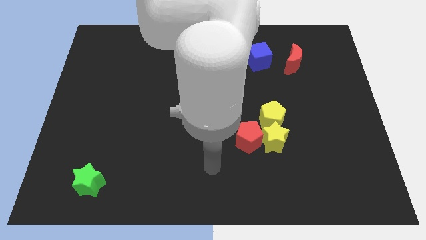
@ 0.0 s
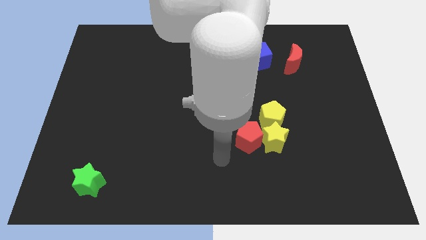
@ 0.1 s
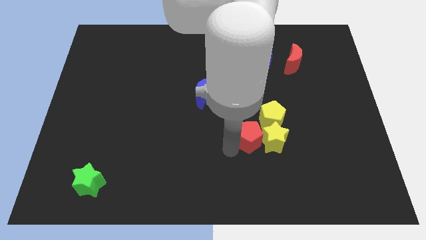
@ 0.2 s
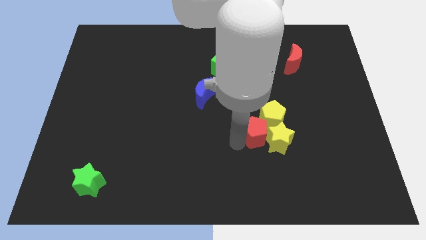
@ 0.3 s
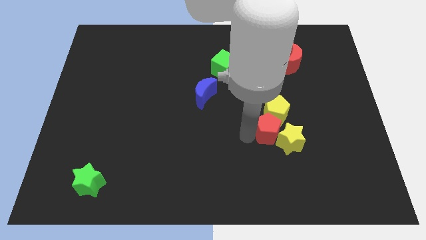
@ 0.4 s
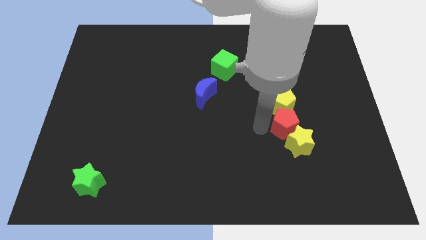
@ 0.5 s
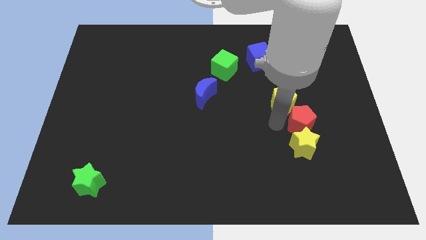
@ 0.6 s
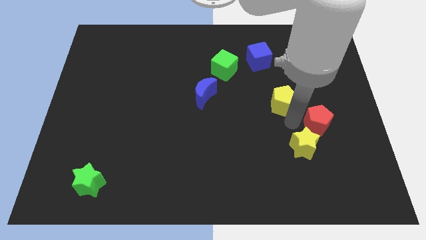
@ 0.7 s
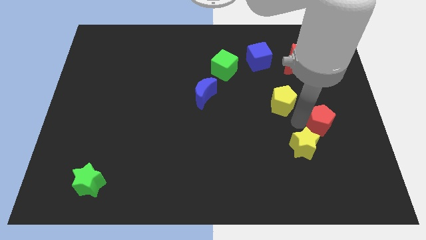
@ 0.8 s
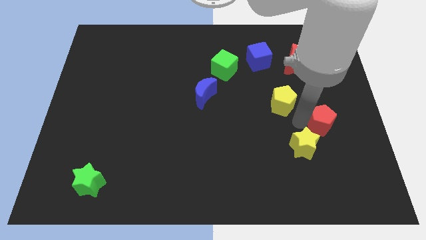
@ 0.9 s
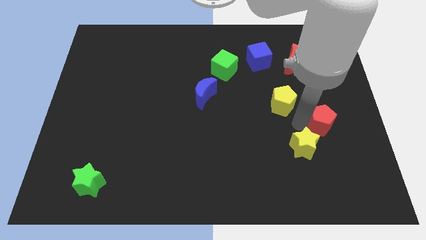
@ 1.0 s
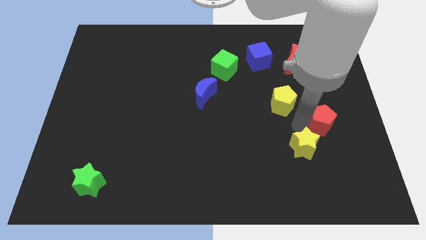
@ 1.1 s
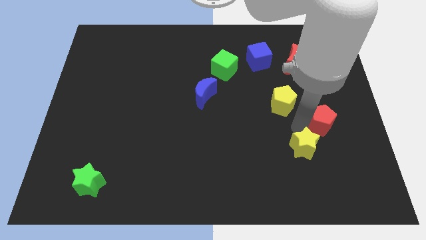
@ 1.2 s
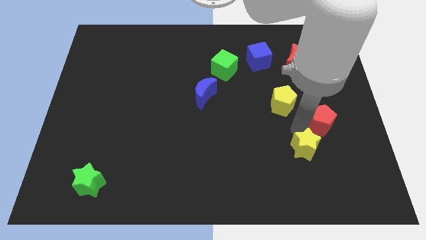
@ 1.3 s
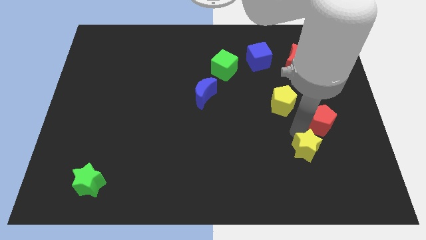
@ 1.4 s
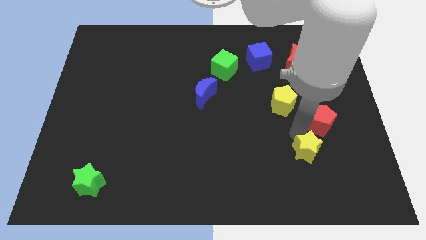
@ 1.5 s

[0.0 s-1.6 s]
separate the yellow star from the red pentagon and yellow pentagon

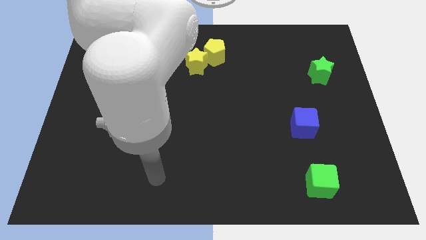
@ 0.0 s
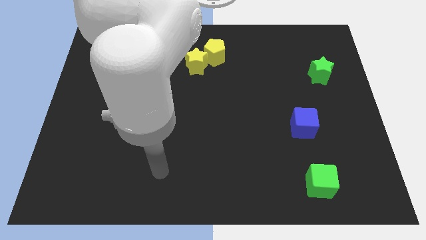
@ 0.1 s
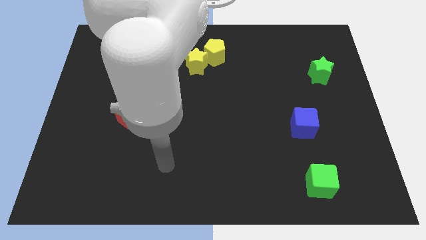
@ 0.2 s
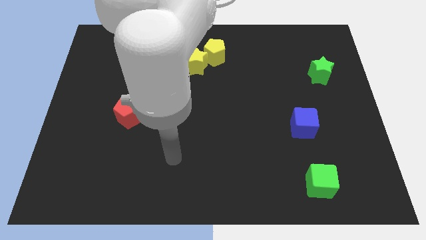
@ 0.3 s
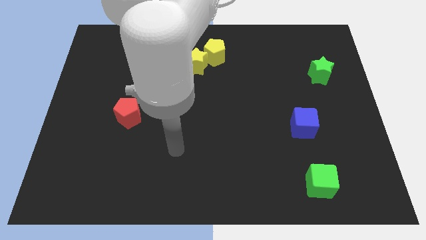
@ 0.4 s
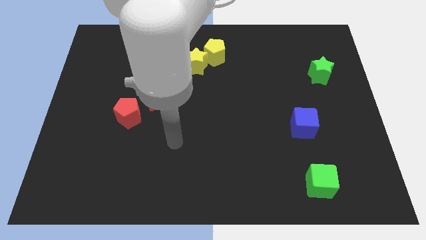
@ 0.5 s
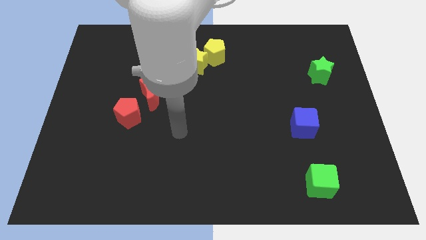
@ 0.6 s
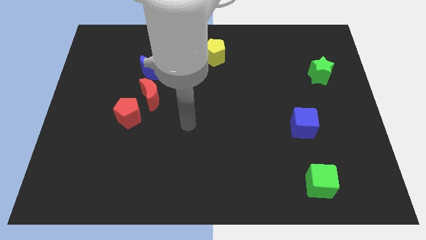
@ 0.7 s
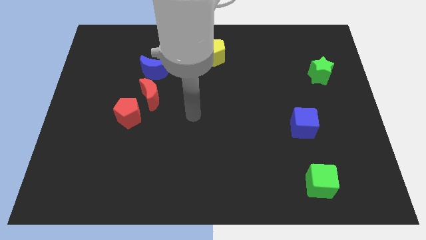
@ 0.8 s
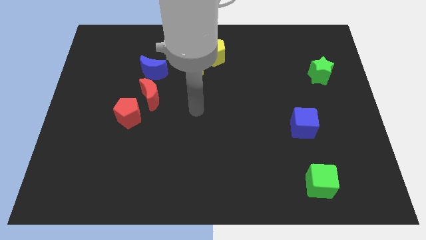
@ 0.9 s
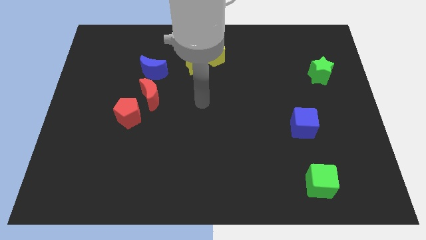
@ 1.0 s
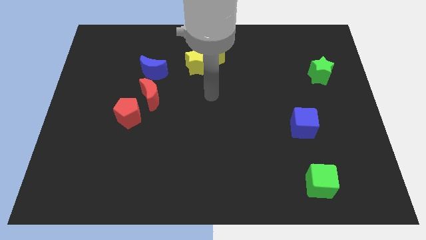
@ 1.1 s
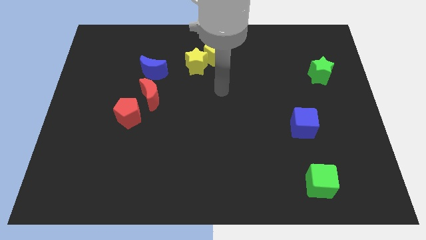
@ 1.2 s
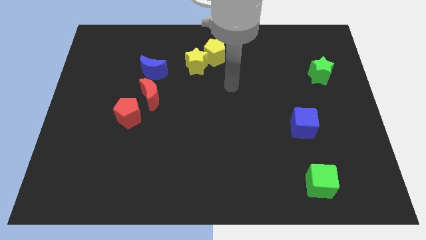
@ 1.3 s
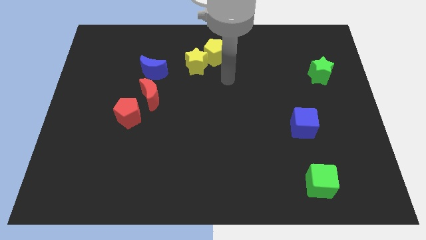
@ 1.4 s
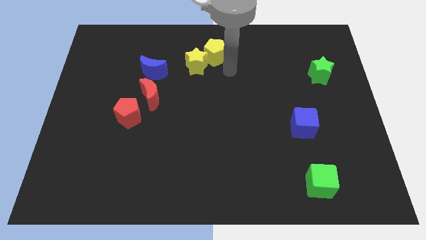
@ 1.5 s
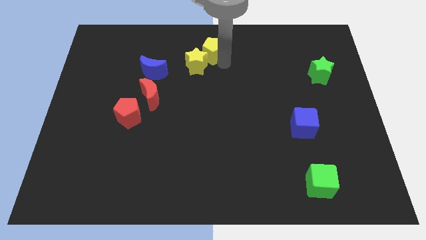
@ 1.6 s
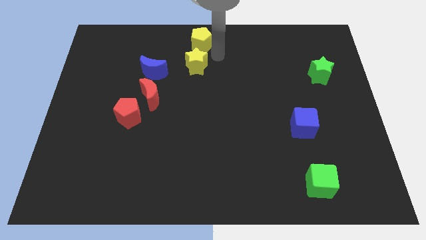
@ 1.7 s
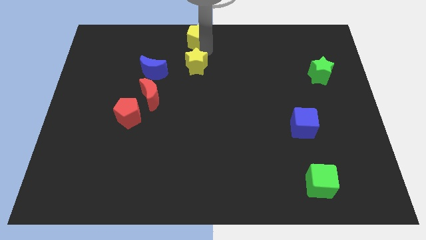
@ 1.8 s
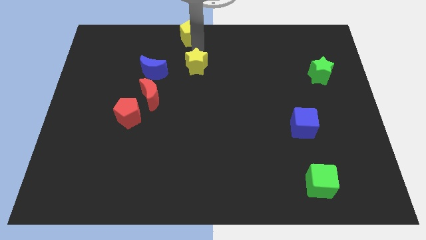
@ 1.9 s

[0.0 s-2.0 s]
separate the yellow star from the yellow pentagon

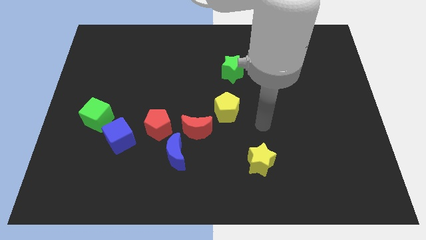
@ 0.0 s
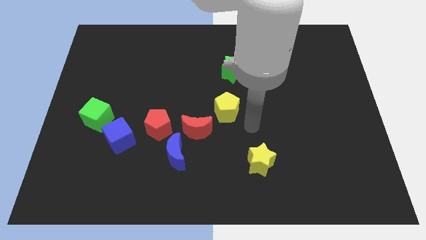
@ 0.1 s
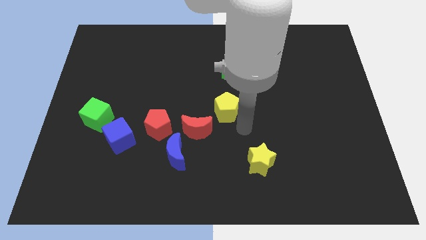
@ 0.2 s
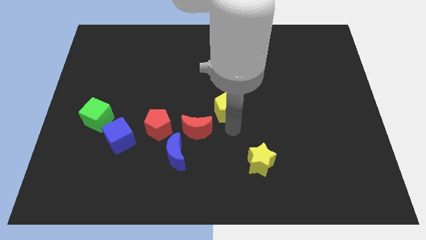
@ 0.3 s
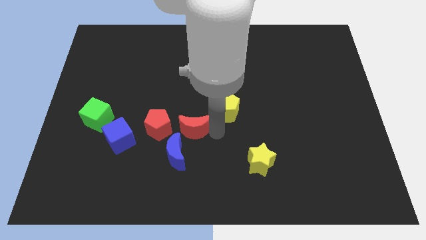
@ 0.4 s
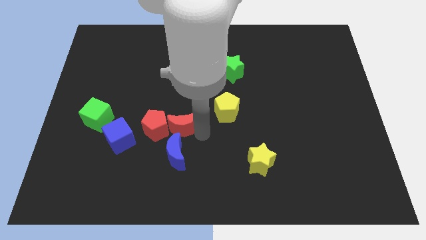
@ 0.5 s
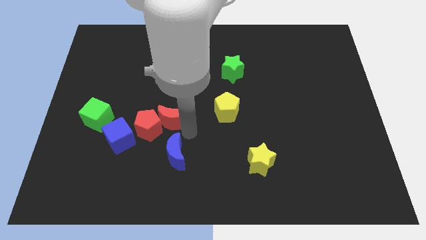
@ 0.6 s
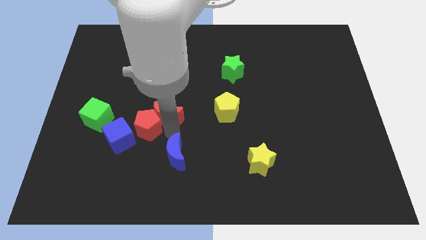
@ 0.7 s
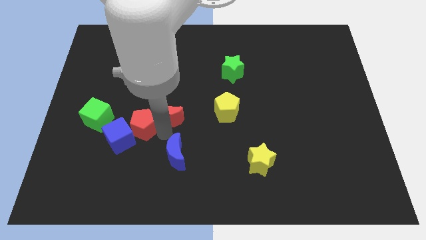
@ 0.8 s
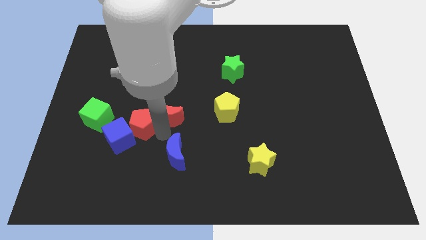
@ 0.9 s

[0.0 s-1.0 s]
separate the blue moon from the red moon and red pentagon

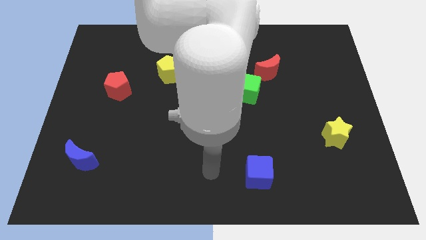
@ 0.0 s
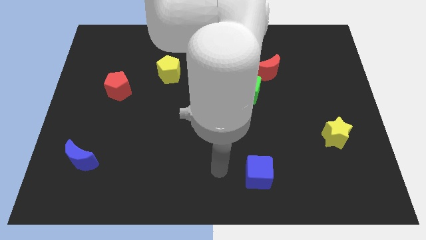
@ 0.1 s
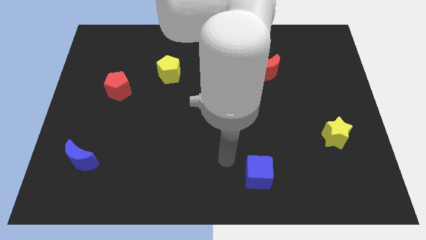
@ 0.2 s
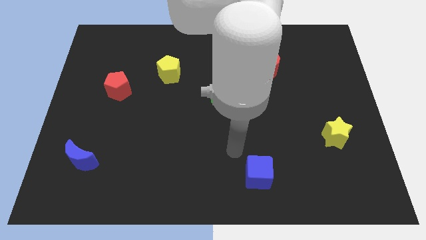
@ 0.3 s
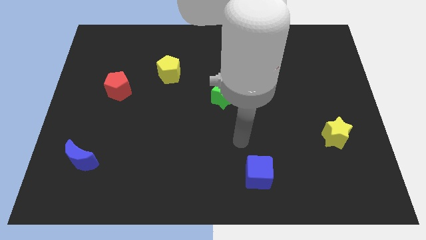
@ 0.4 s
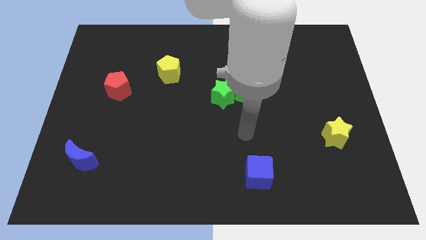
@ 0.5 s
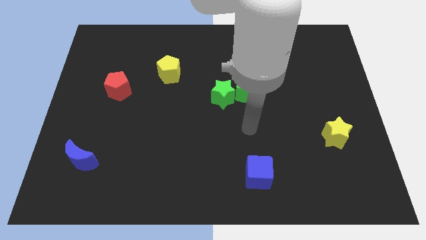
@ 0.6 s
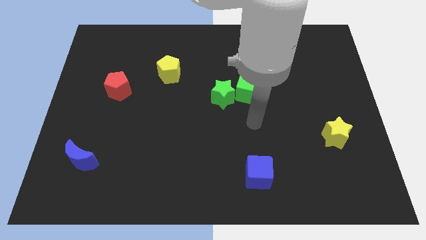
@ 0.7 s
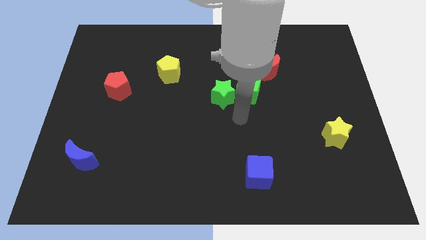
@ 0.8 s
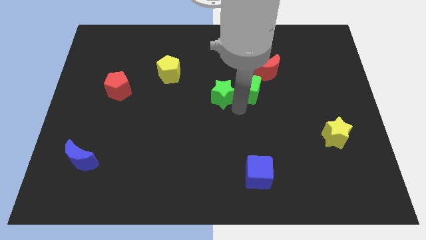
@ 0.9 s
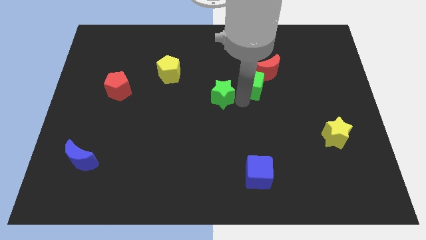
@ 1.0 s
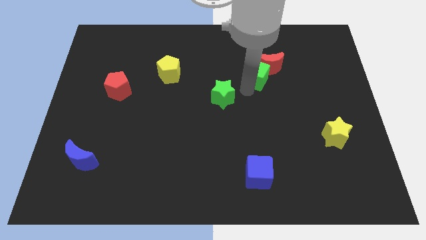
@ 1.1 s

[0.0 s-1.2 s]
move the green star away from the green cube

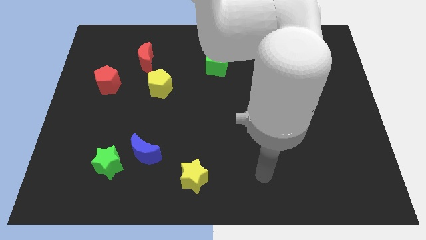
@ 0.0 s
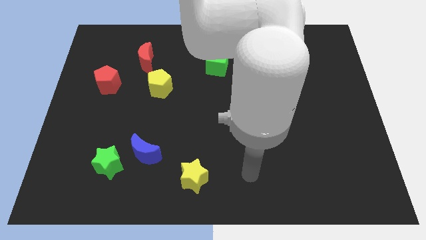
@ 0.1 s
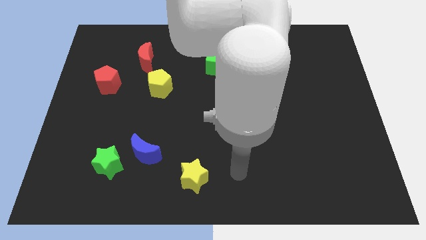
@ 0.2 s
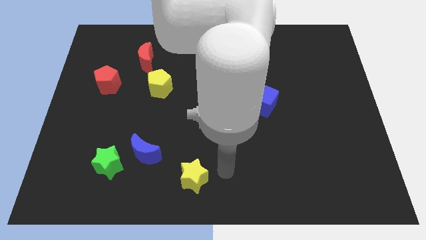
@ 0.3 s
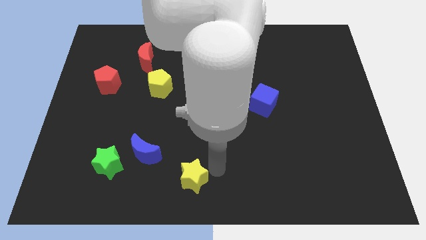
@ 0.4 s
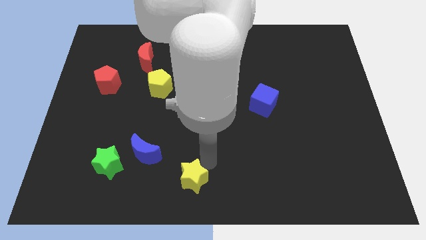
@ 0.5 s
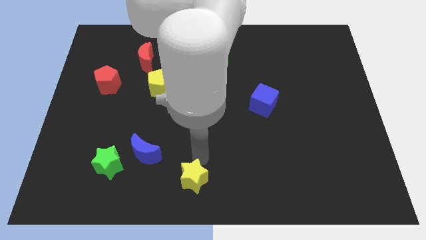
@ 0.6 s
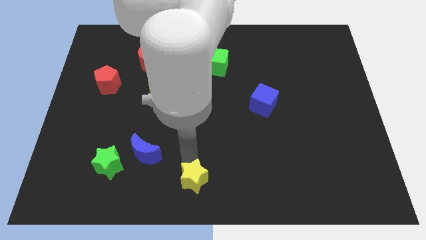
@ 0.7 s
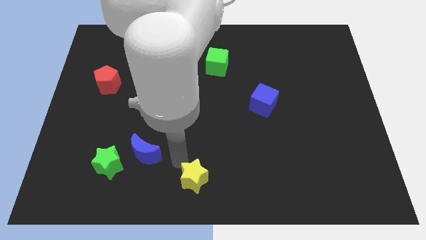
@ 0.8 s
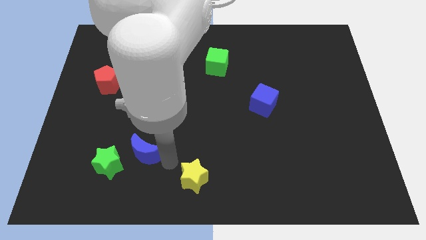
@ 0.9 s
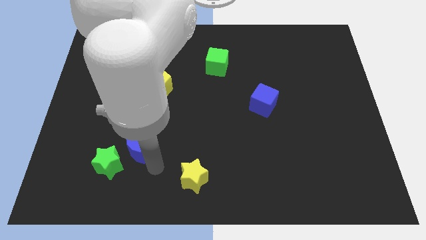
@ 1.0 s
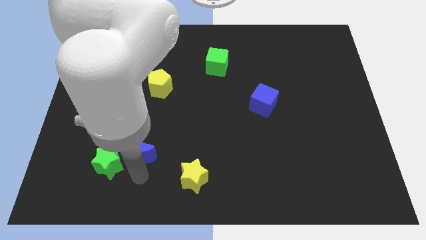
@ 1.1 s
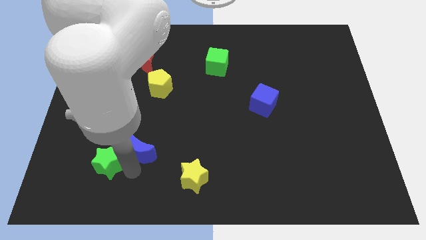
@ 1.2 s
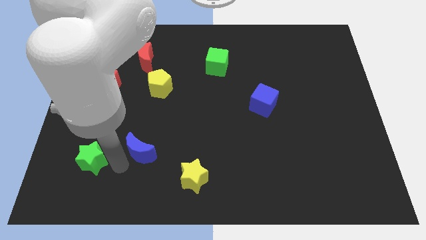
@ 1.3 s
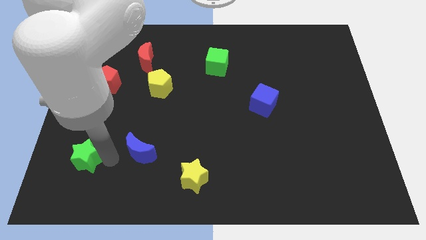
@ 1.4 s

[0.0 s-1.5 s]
pull the blue moon apart from the green star

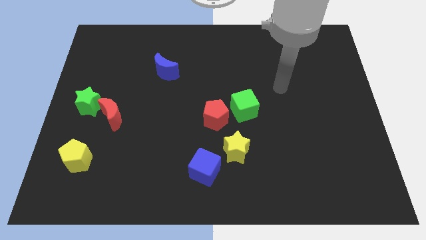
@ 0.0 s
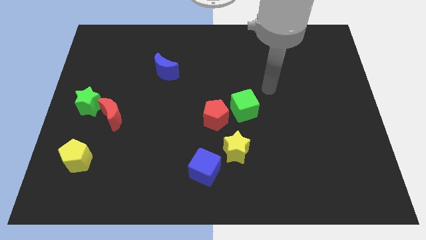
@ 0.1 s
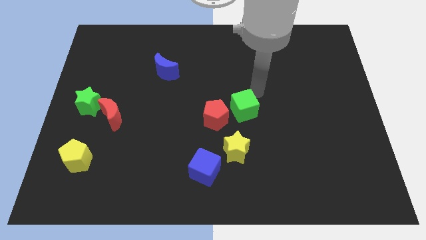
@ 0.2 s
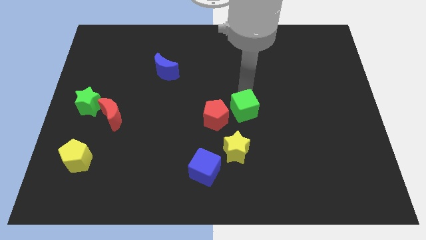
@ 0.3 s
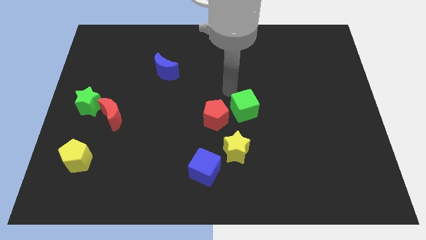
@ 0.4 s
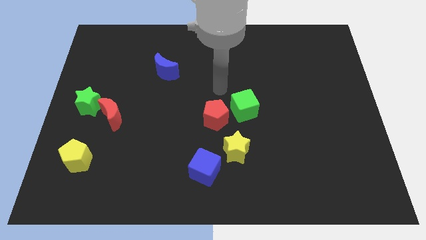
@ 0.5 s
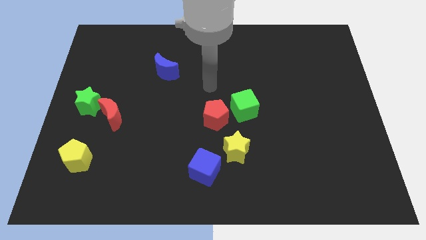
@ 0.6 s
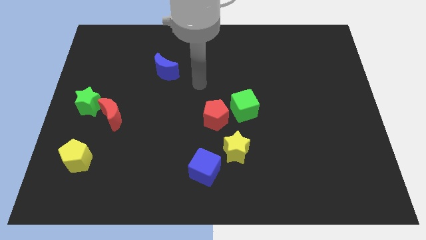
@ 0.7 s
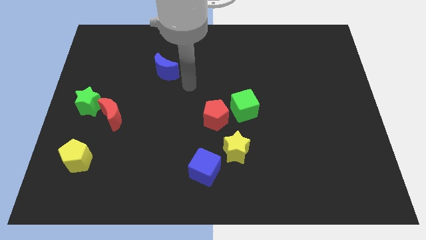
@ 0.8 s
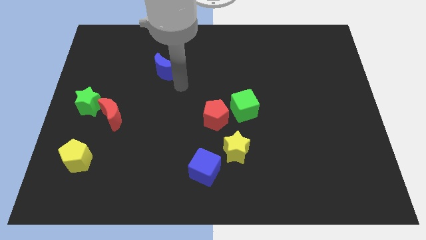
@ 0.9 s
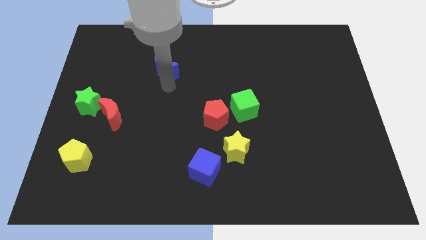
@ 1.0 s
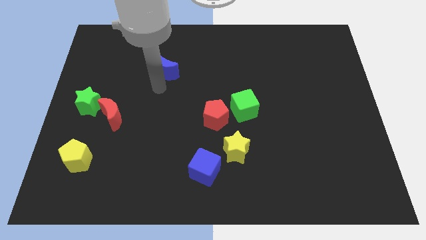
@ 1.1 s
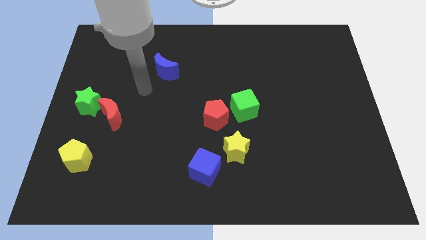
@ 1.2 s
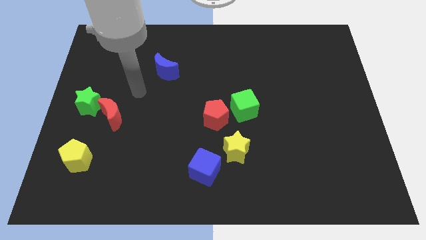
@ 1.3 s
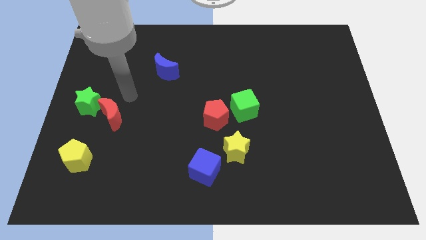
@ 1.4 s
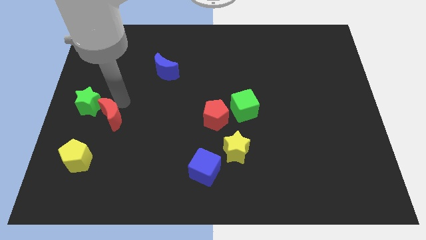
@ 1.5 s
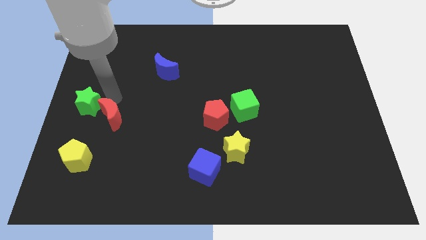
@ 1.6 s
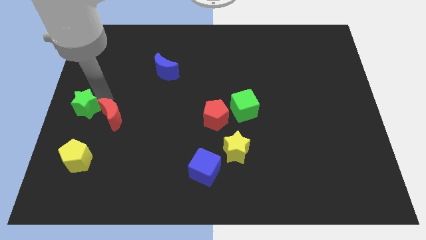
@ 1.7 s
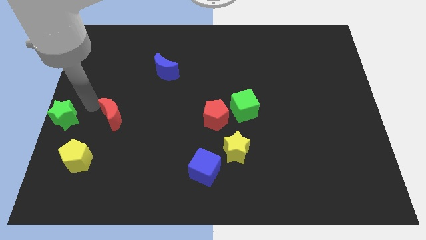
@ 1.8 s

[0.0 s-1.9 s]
move the red moon away from the green star

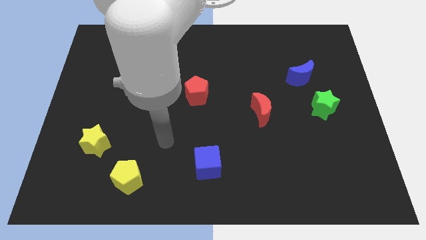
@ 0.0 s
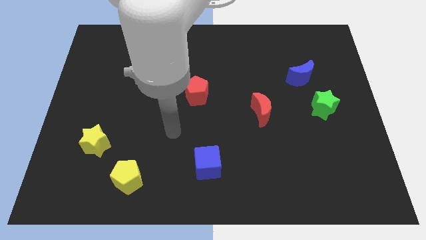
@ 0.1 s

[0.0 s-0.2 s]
move the blue moon away from the green star
